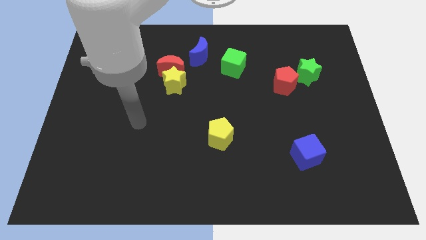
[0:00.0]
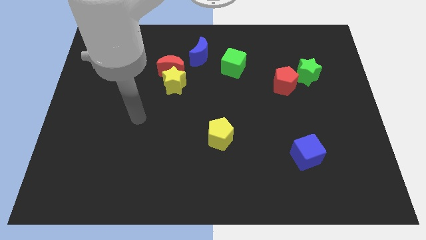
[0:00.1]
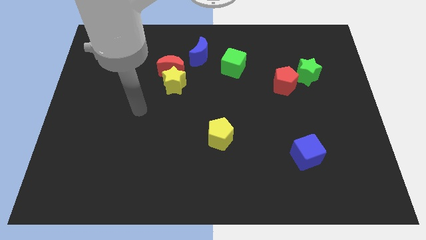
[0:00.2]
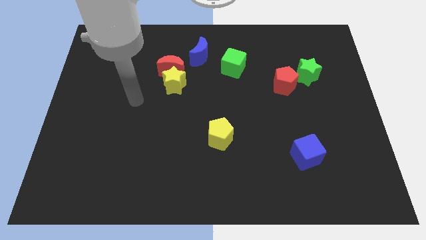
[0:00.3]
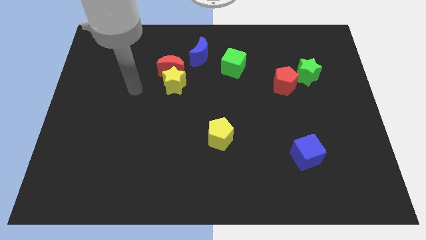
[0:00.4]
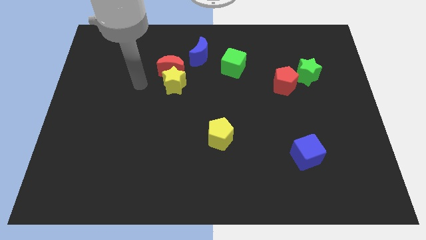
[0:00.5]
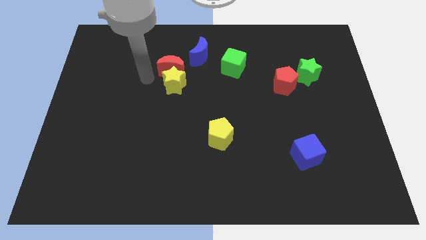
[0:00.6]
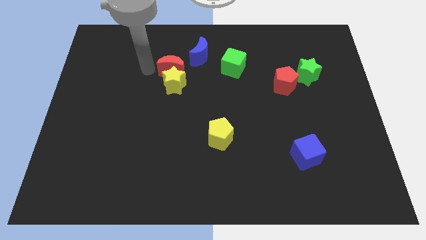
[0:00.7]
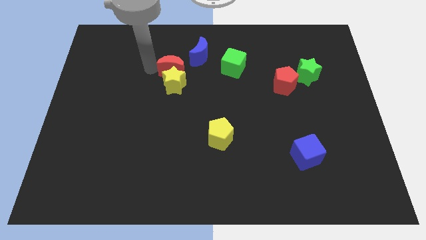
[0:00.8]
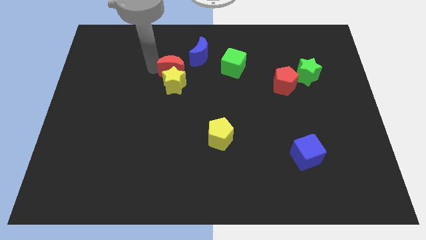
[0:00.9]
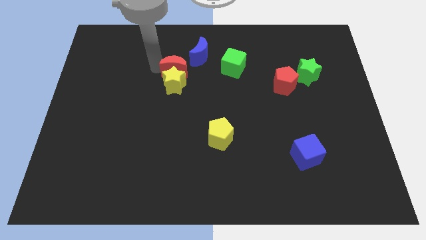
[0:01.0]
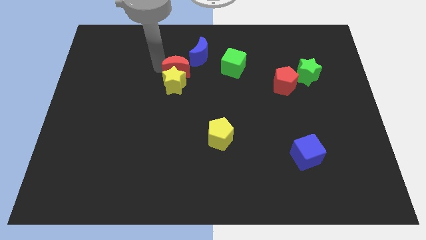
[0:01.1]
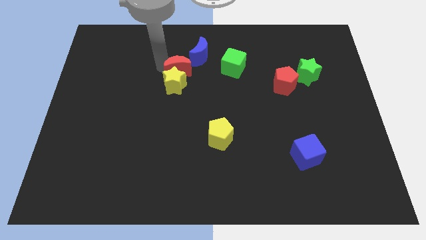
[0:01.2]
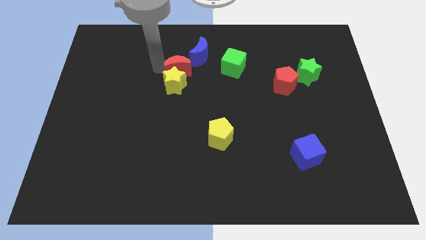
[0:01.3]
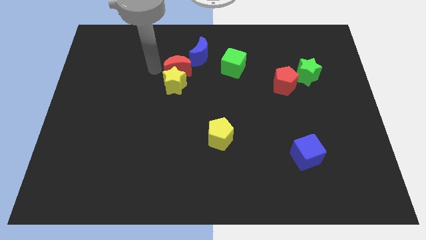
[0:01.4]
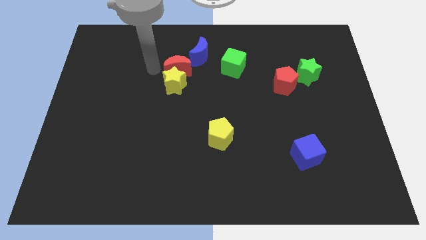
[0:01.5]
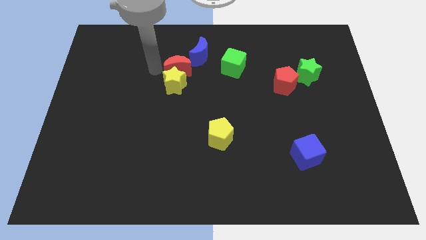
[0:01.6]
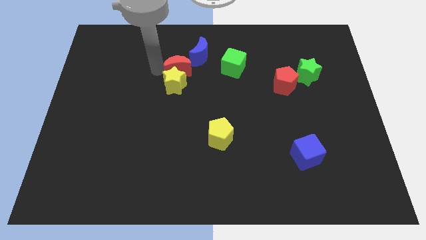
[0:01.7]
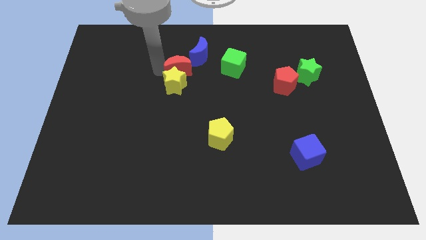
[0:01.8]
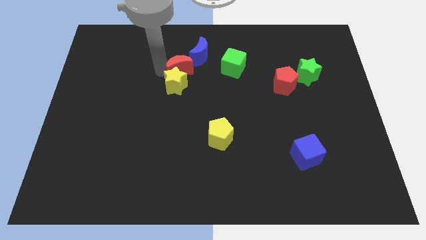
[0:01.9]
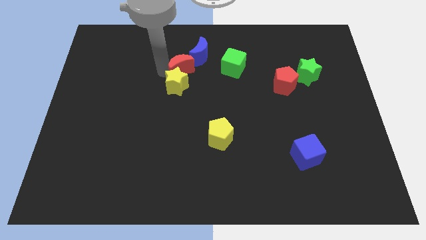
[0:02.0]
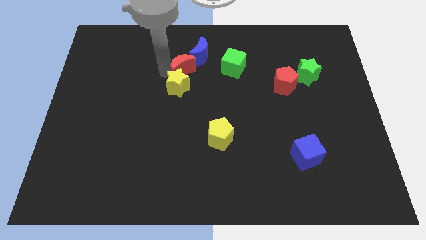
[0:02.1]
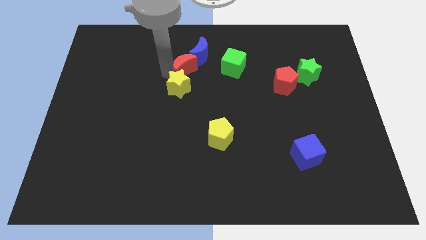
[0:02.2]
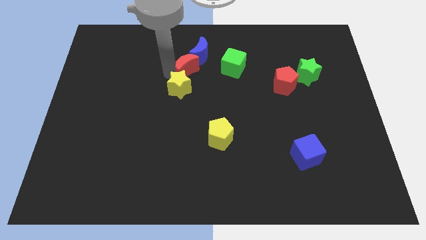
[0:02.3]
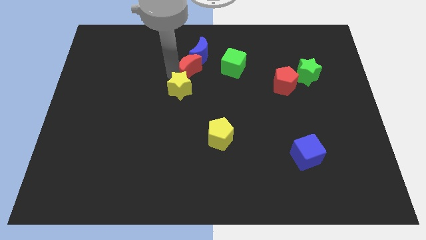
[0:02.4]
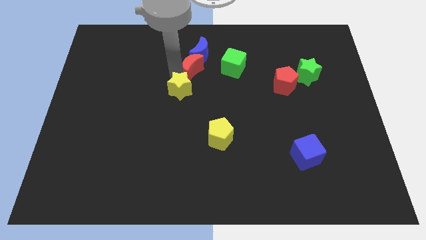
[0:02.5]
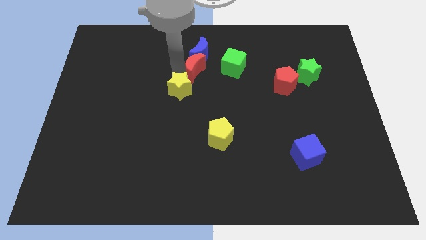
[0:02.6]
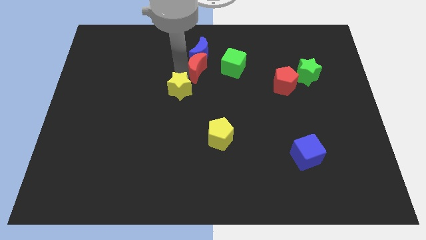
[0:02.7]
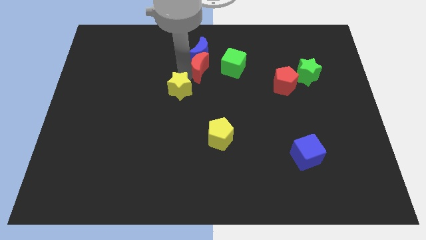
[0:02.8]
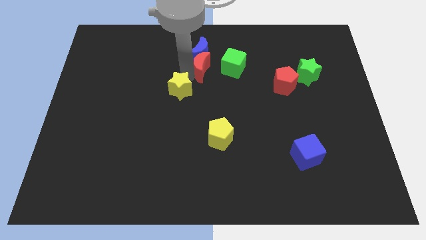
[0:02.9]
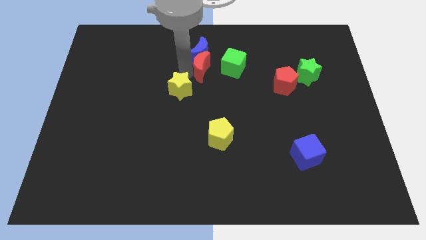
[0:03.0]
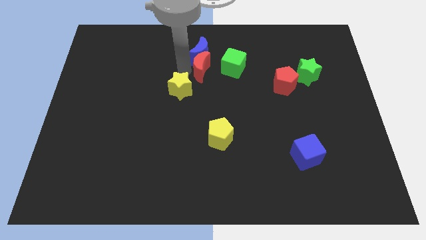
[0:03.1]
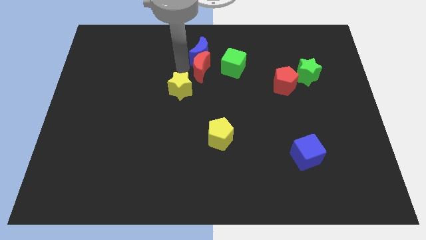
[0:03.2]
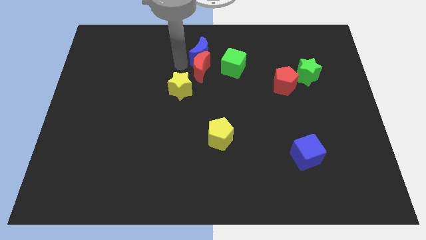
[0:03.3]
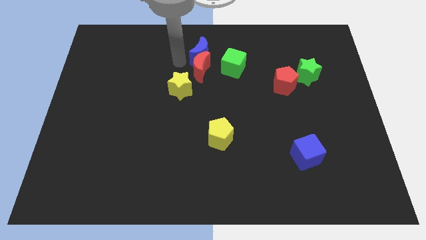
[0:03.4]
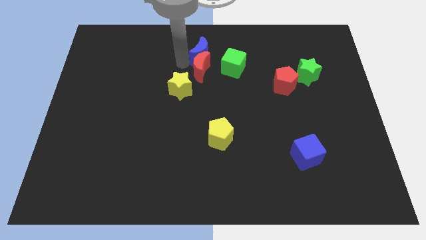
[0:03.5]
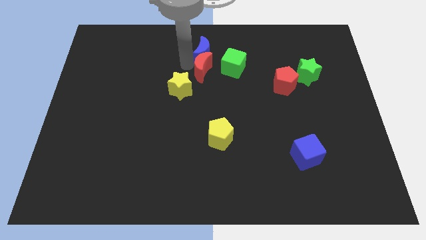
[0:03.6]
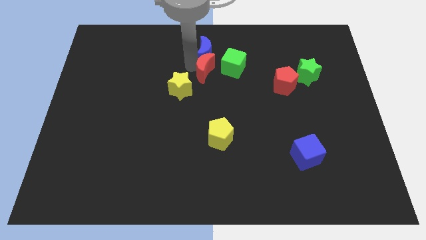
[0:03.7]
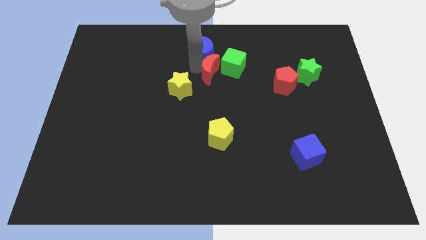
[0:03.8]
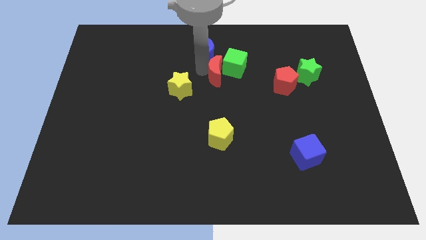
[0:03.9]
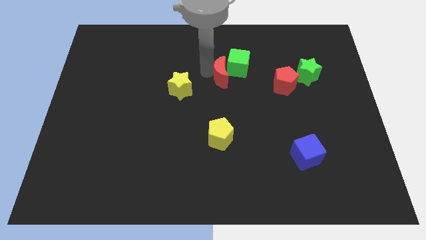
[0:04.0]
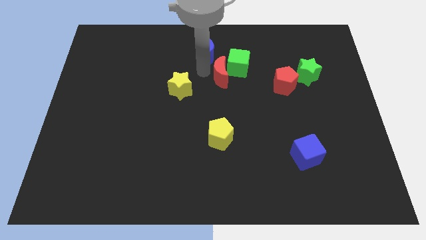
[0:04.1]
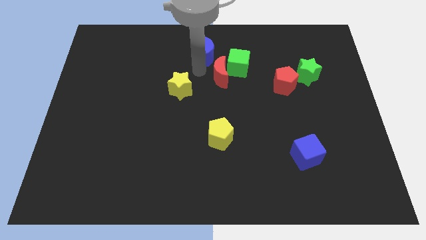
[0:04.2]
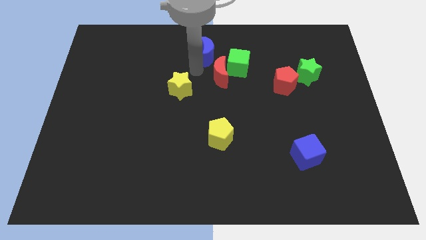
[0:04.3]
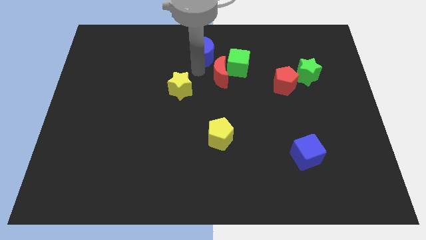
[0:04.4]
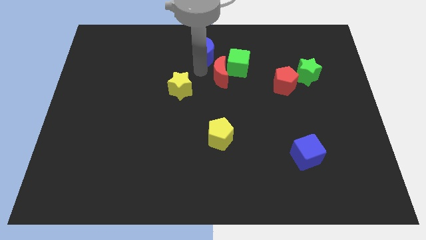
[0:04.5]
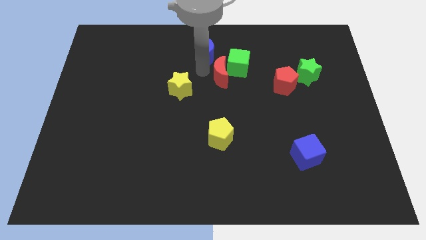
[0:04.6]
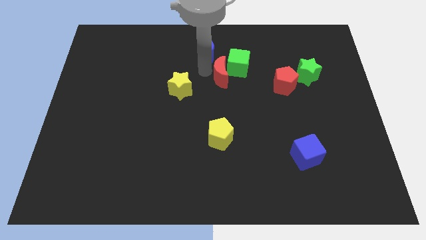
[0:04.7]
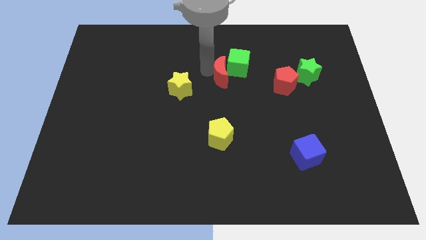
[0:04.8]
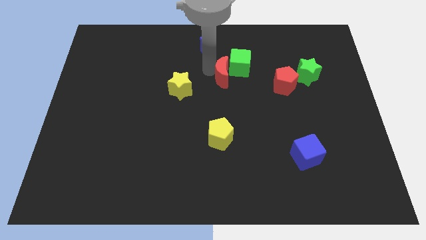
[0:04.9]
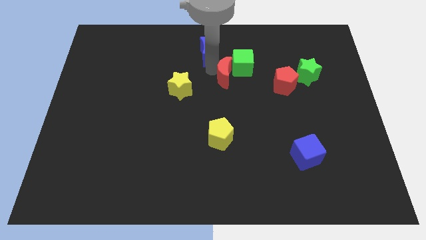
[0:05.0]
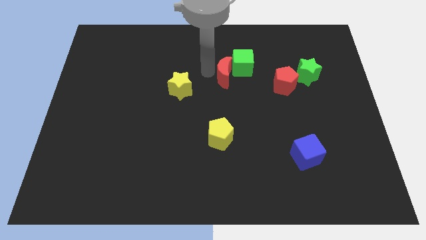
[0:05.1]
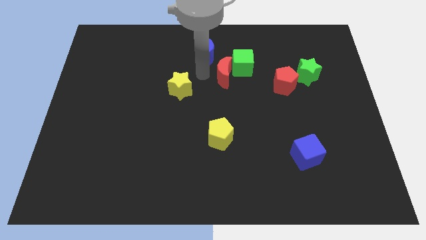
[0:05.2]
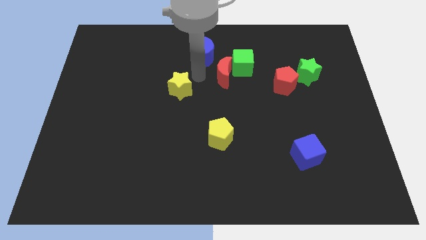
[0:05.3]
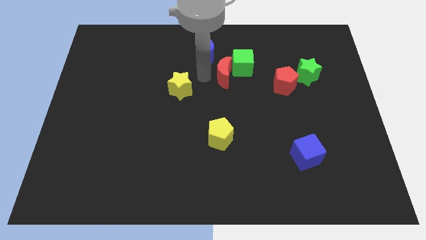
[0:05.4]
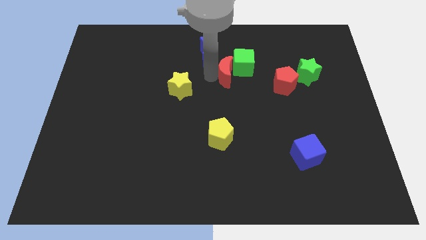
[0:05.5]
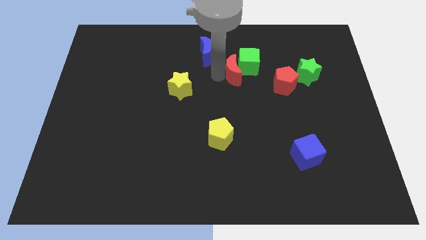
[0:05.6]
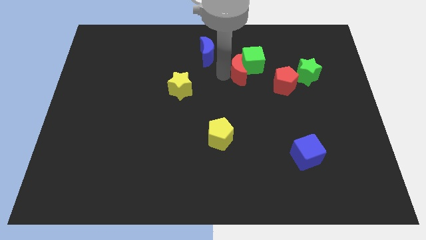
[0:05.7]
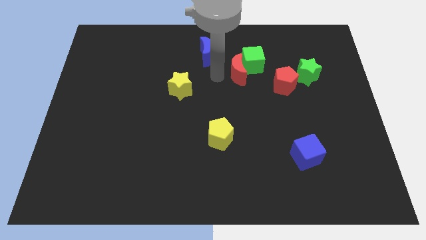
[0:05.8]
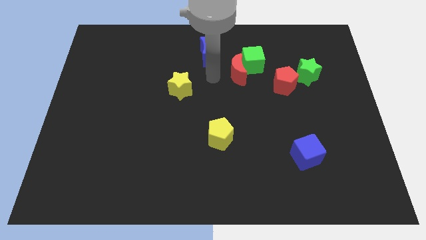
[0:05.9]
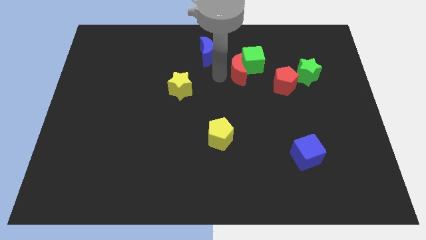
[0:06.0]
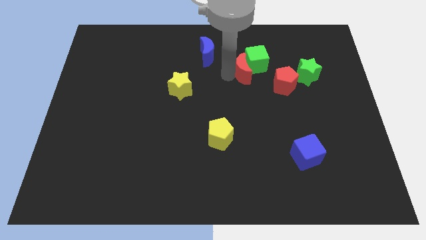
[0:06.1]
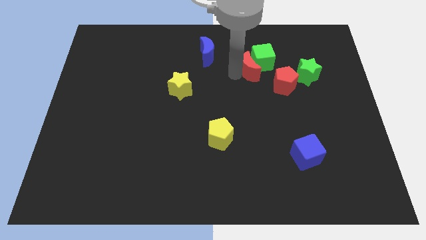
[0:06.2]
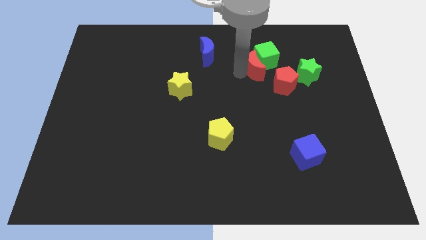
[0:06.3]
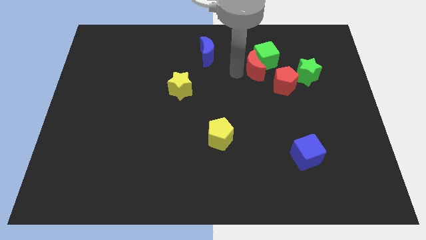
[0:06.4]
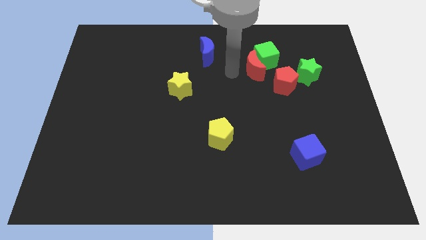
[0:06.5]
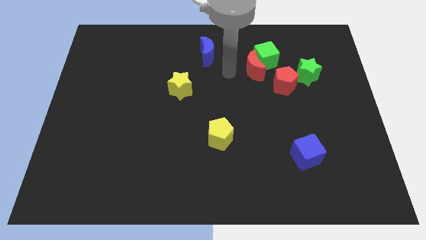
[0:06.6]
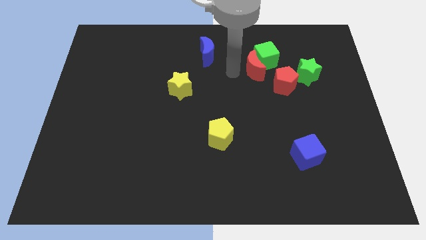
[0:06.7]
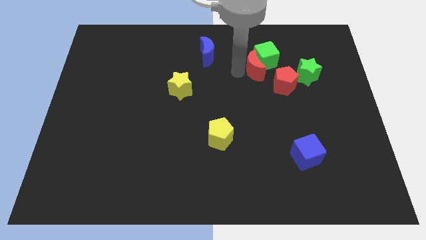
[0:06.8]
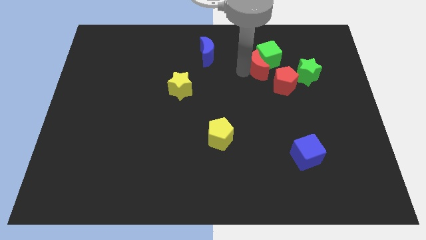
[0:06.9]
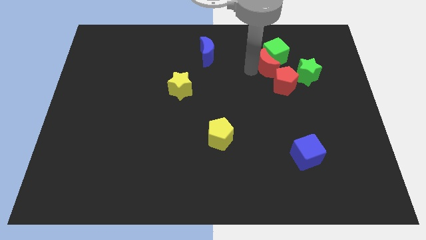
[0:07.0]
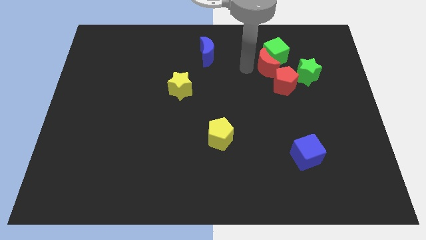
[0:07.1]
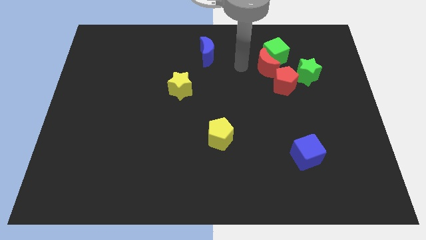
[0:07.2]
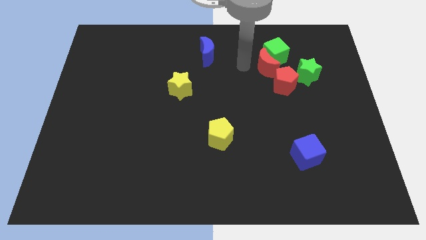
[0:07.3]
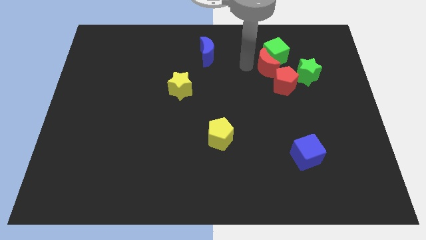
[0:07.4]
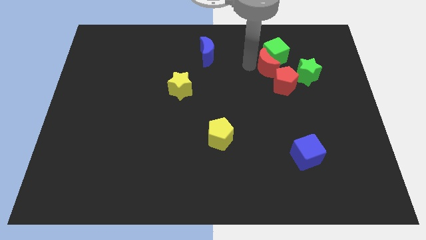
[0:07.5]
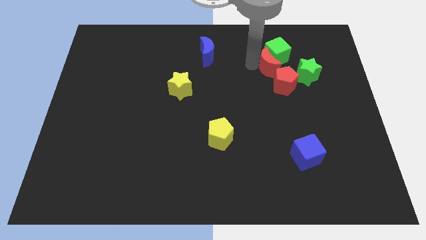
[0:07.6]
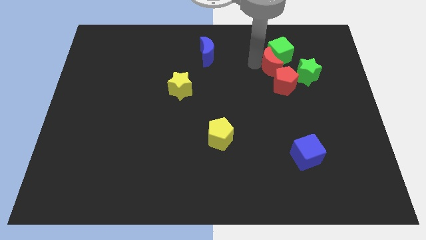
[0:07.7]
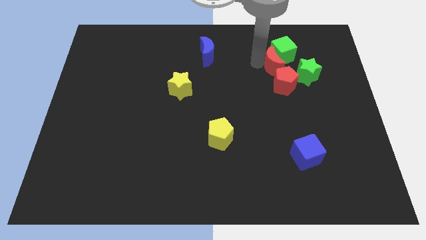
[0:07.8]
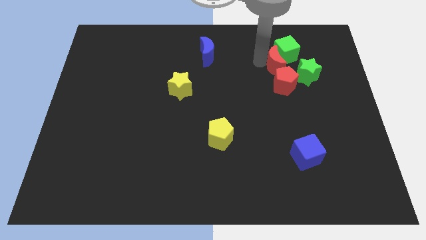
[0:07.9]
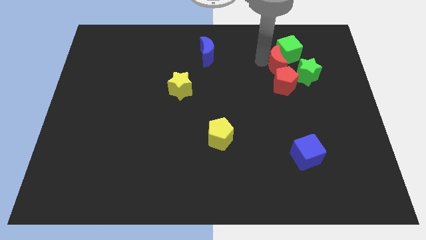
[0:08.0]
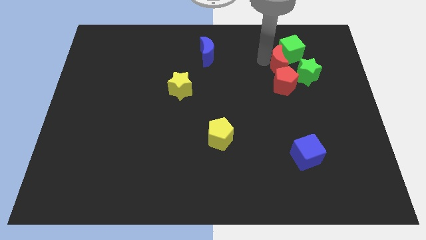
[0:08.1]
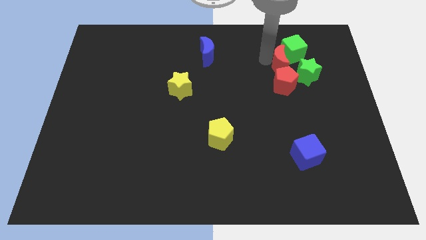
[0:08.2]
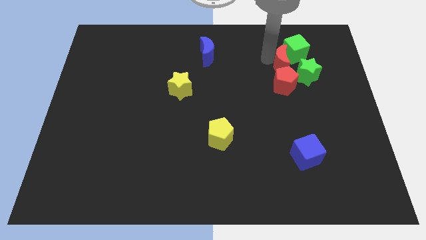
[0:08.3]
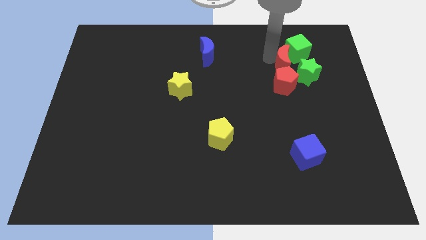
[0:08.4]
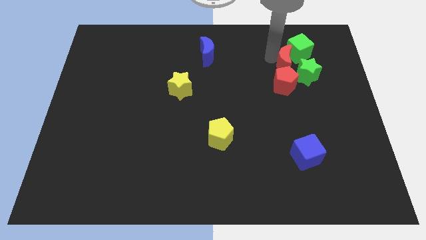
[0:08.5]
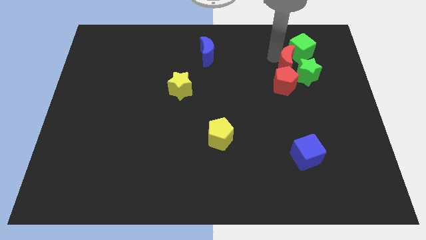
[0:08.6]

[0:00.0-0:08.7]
push the red moon next to the green star
